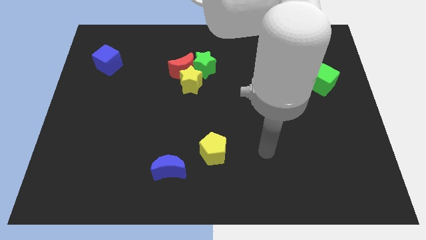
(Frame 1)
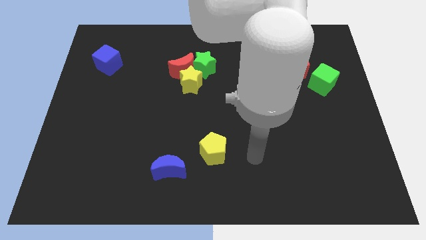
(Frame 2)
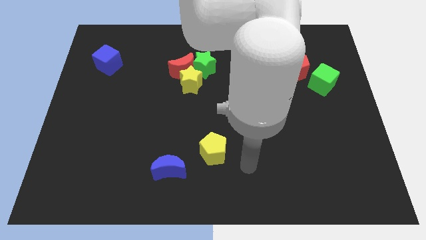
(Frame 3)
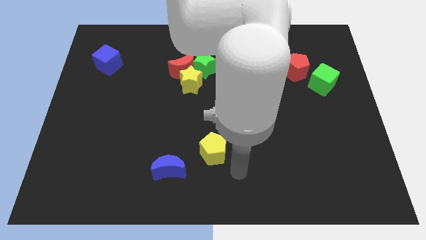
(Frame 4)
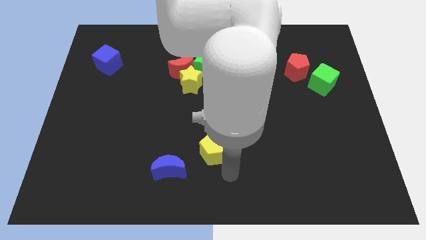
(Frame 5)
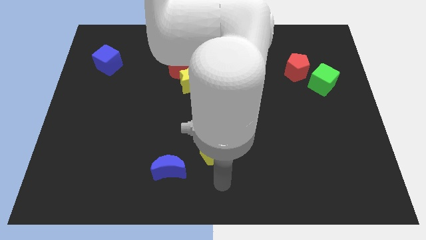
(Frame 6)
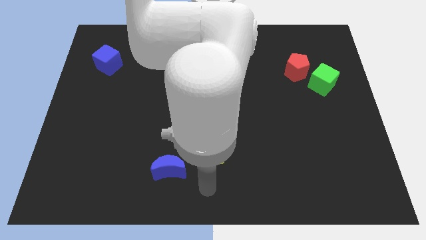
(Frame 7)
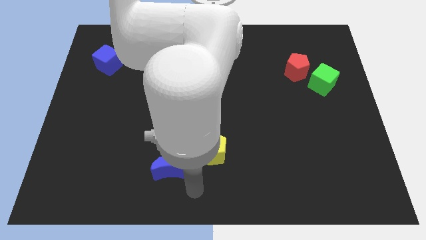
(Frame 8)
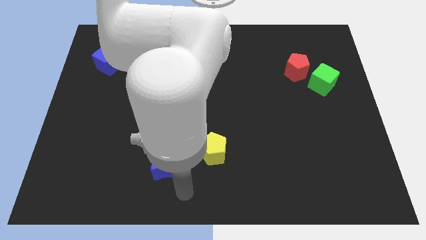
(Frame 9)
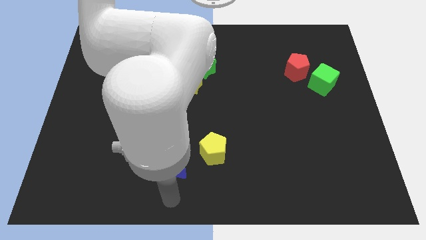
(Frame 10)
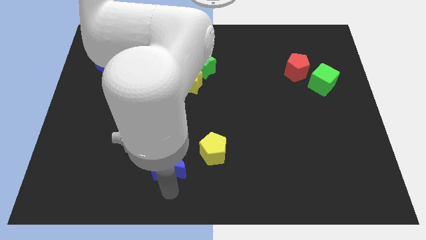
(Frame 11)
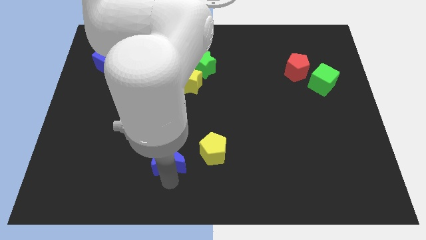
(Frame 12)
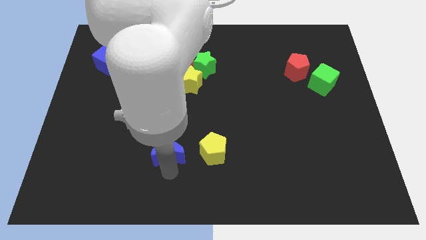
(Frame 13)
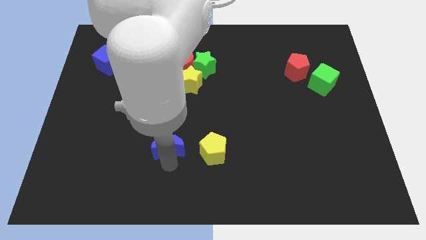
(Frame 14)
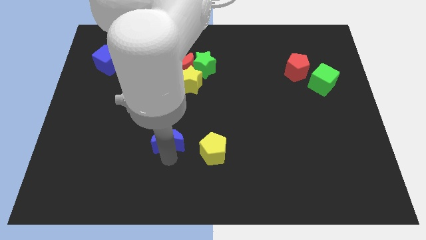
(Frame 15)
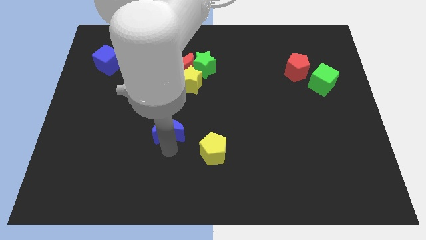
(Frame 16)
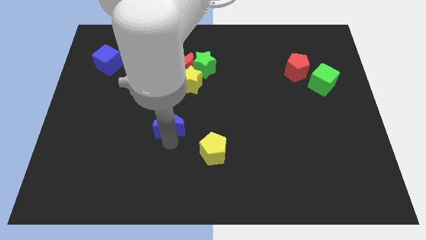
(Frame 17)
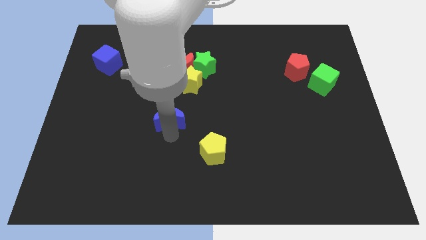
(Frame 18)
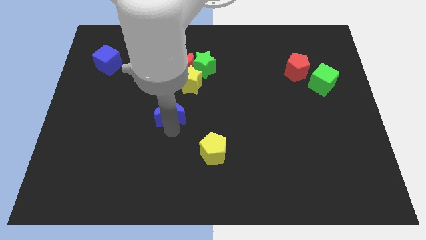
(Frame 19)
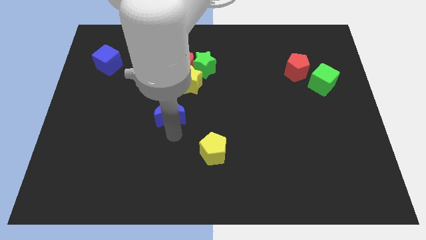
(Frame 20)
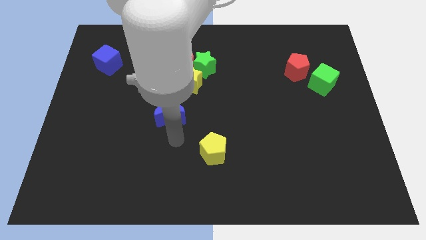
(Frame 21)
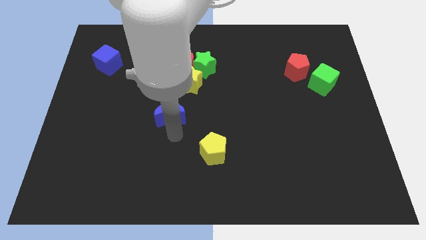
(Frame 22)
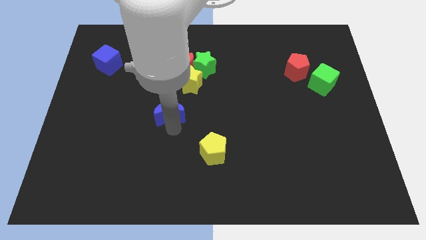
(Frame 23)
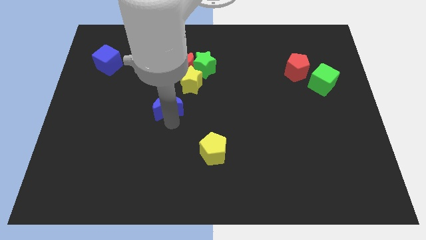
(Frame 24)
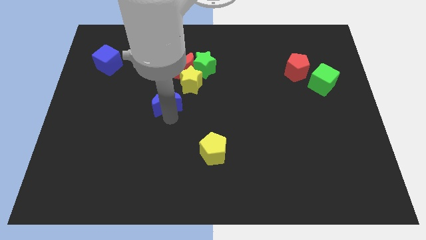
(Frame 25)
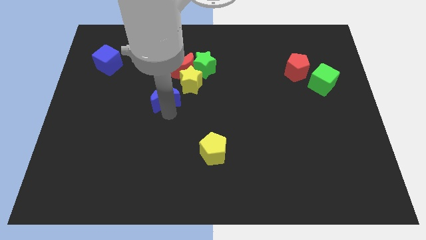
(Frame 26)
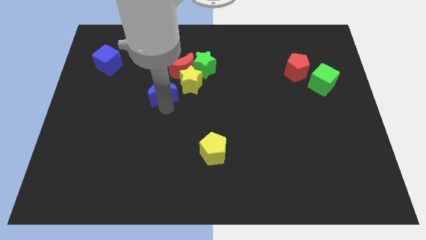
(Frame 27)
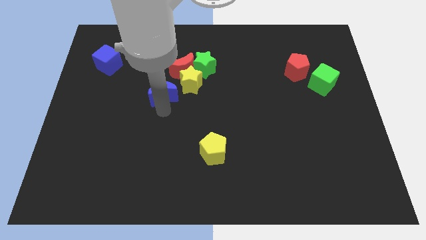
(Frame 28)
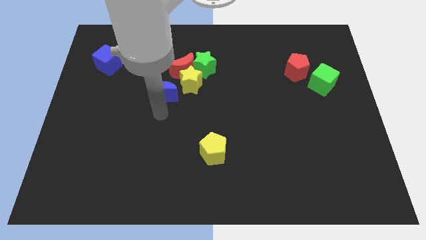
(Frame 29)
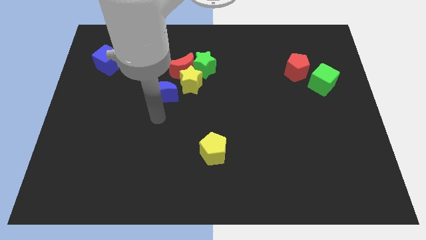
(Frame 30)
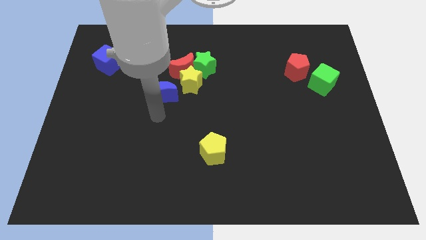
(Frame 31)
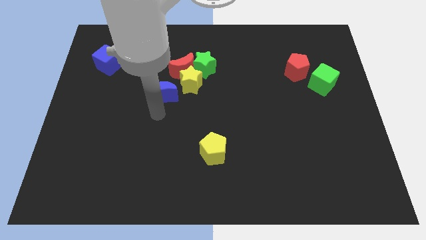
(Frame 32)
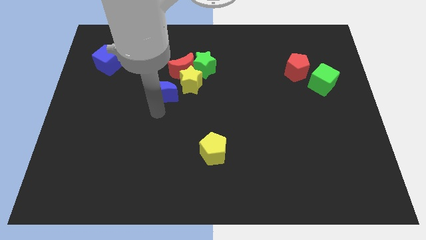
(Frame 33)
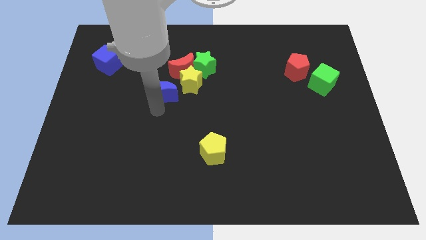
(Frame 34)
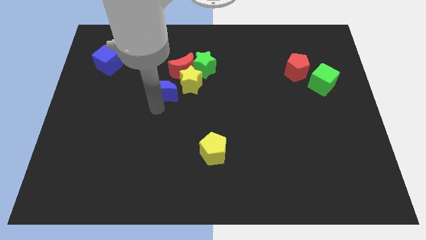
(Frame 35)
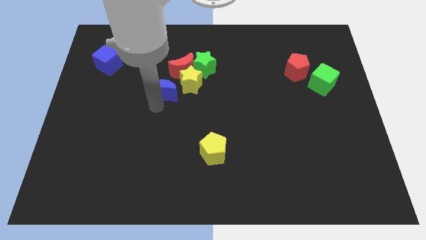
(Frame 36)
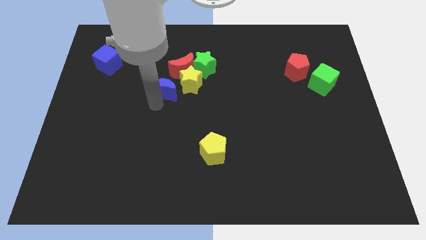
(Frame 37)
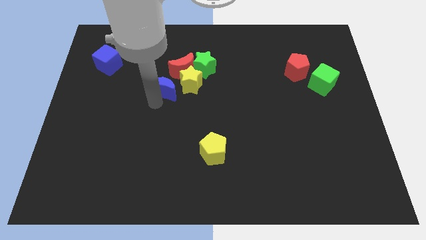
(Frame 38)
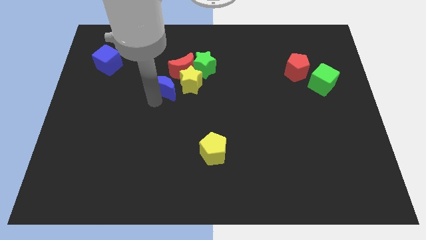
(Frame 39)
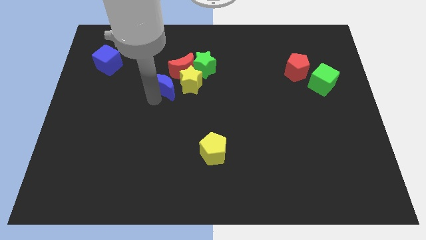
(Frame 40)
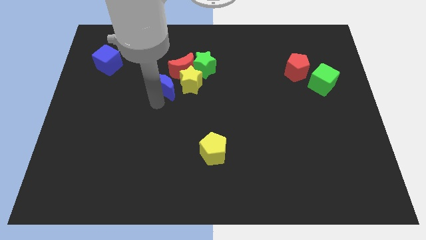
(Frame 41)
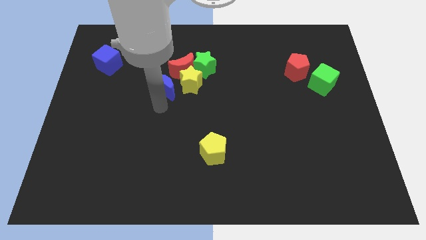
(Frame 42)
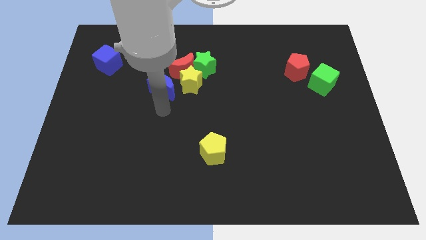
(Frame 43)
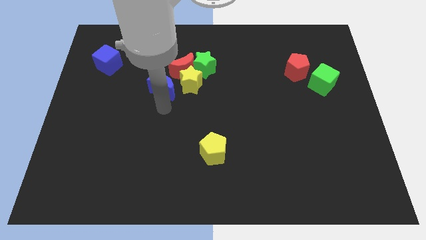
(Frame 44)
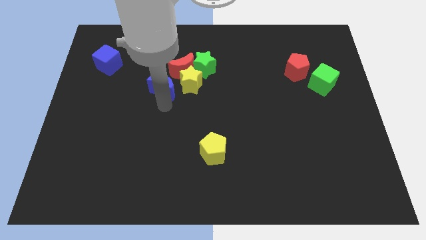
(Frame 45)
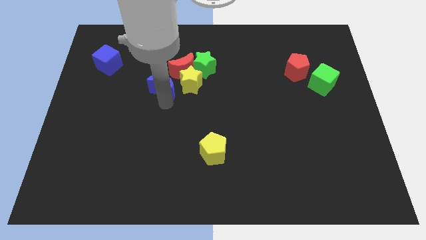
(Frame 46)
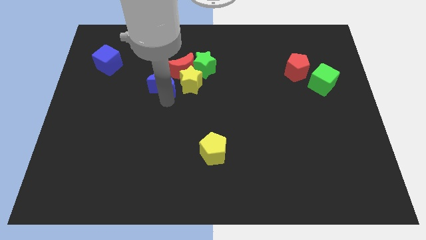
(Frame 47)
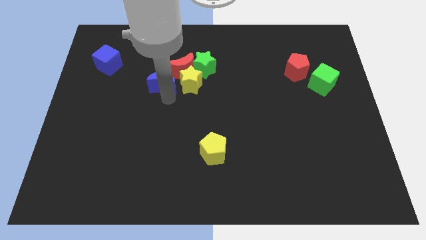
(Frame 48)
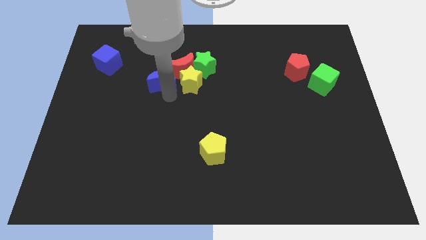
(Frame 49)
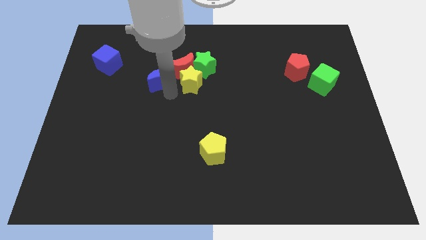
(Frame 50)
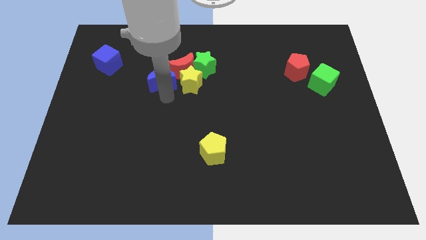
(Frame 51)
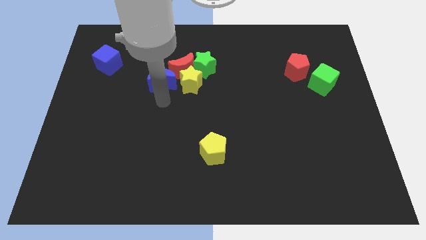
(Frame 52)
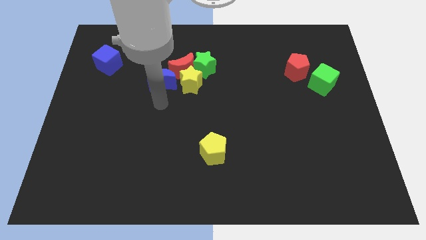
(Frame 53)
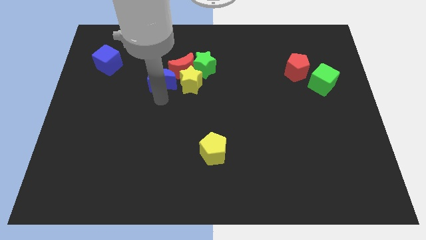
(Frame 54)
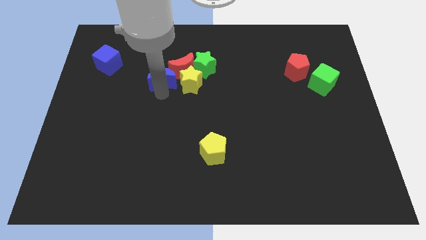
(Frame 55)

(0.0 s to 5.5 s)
push the blue moon left of the green star

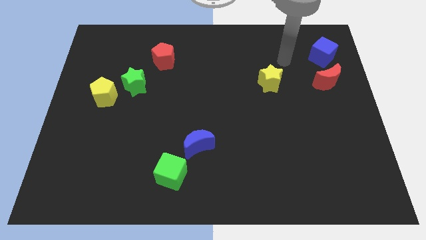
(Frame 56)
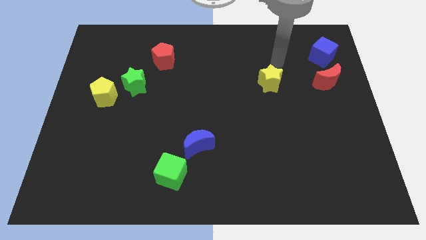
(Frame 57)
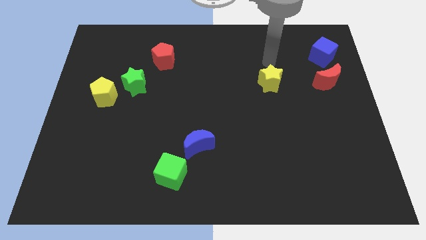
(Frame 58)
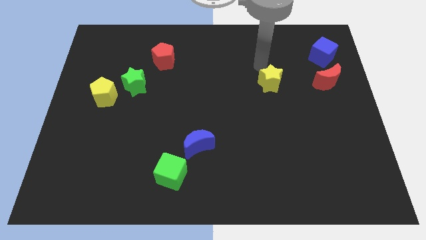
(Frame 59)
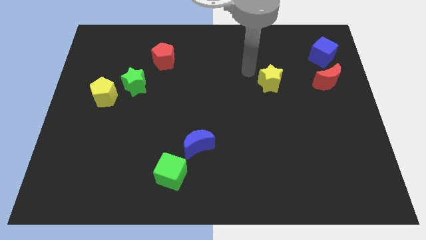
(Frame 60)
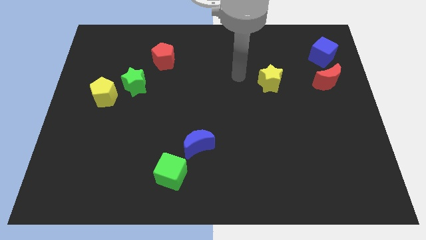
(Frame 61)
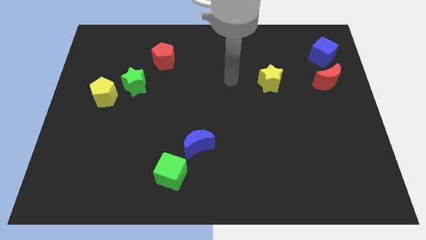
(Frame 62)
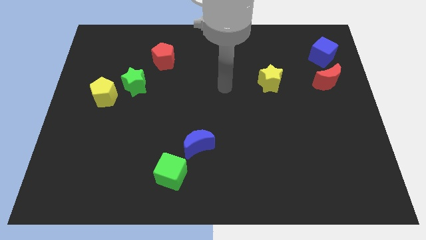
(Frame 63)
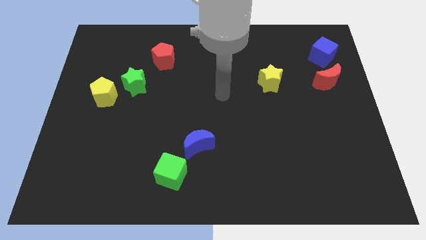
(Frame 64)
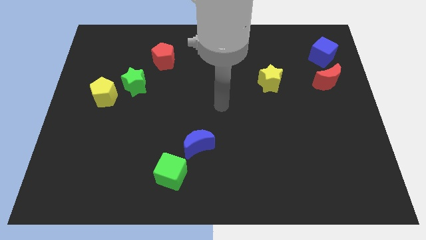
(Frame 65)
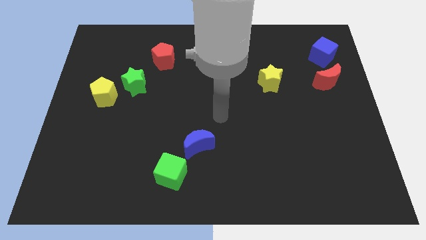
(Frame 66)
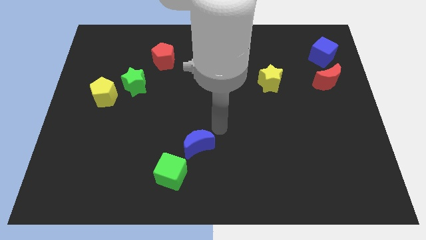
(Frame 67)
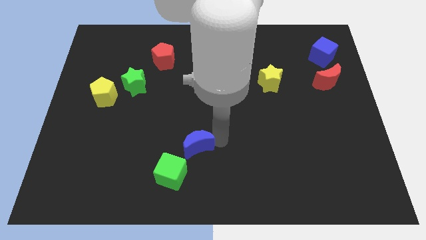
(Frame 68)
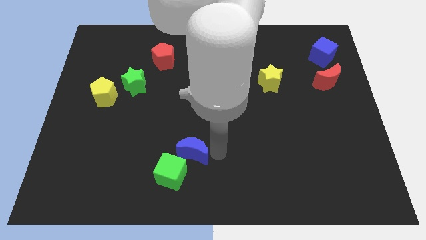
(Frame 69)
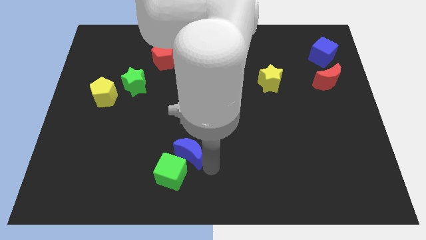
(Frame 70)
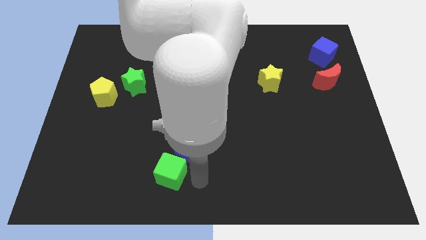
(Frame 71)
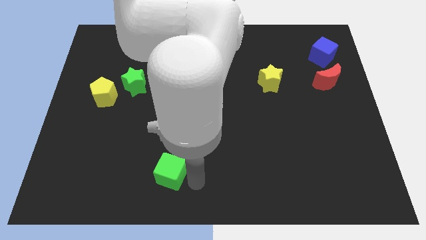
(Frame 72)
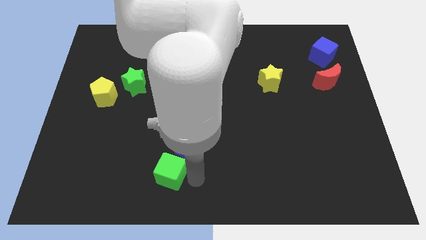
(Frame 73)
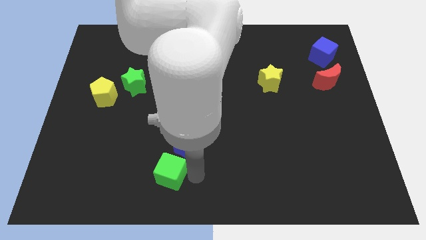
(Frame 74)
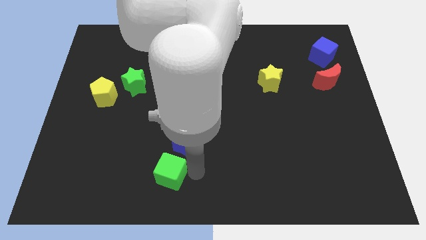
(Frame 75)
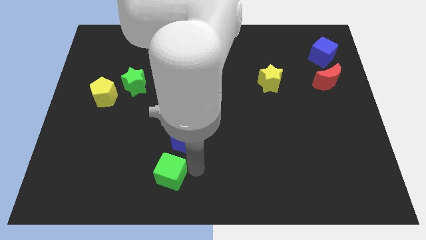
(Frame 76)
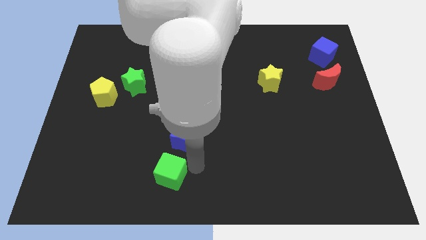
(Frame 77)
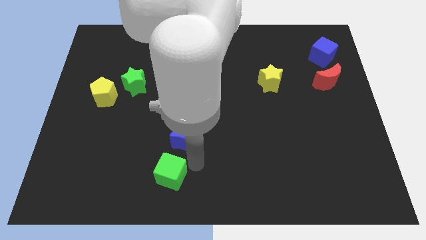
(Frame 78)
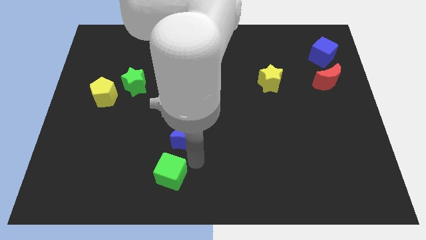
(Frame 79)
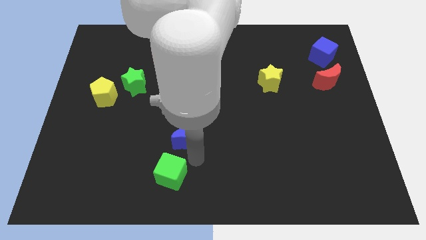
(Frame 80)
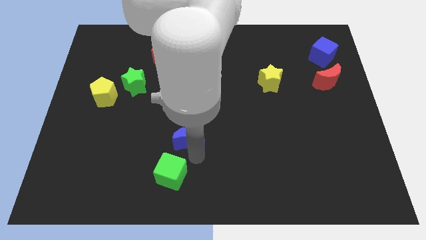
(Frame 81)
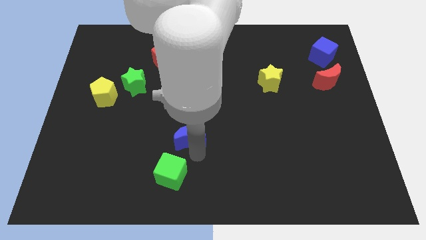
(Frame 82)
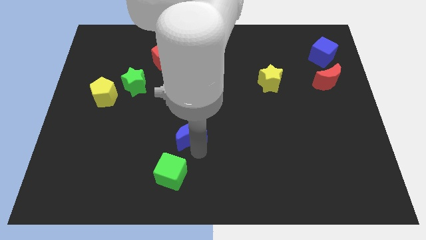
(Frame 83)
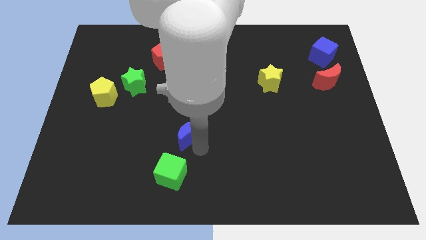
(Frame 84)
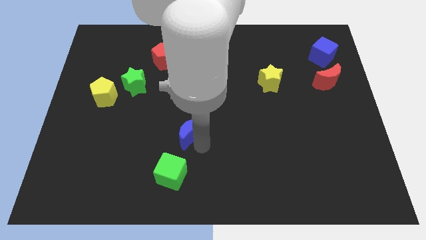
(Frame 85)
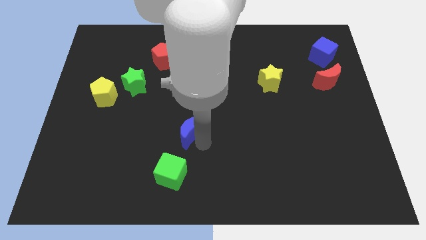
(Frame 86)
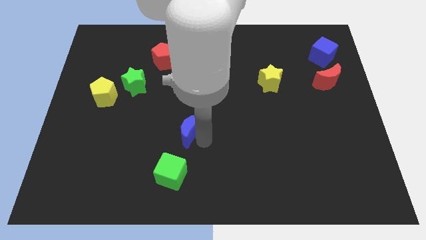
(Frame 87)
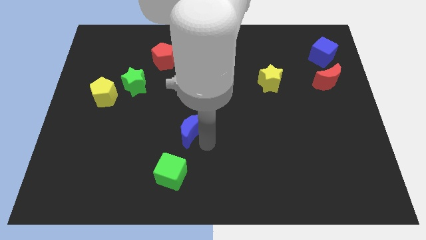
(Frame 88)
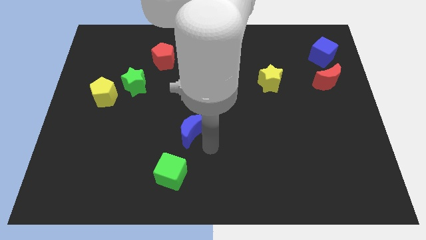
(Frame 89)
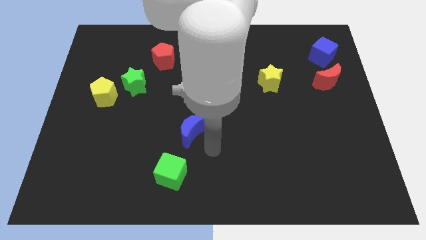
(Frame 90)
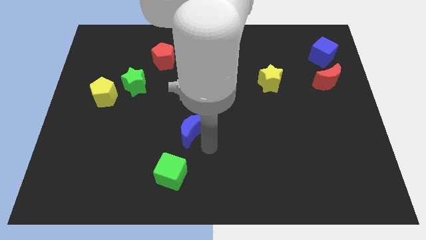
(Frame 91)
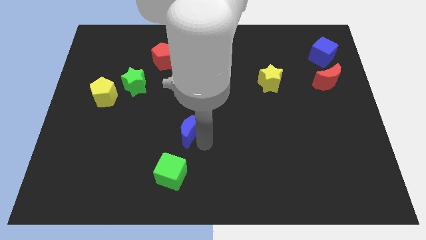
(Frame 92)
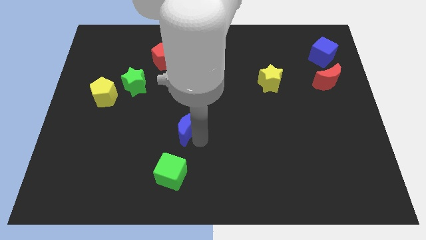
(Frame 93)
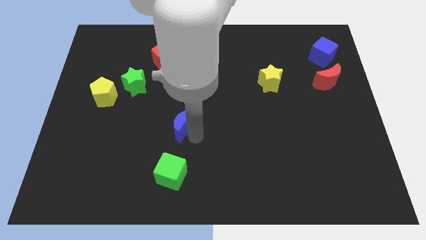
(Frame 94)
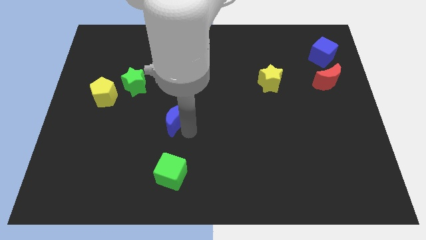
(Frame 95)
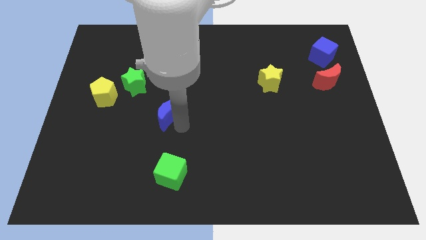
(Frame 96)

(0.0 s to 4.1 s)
put the blue moon to the bottom right side of the green star
